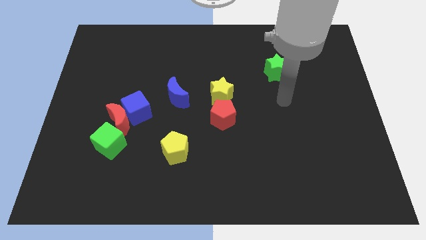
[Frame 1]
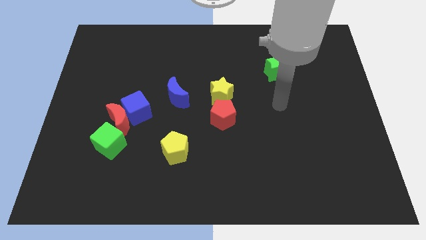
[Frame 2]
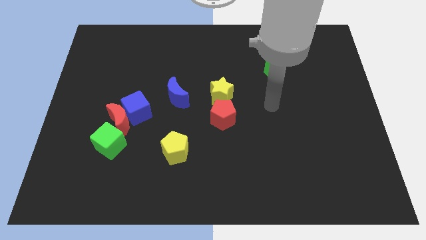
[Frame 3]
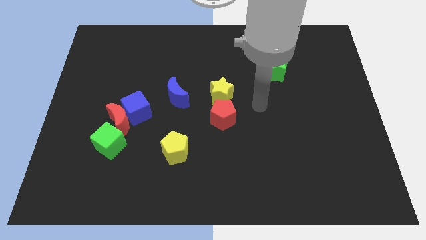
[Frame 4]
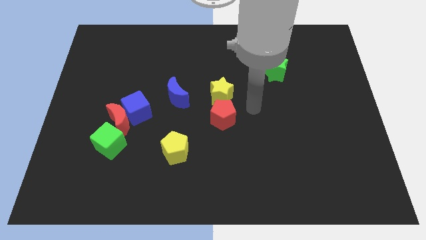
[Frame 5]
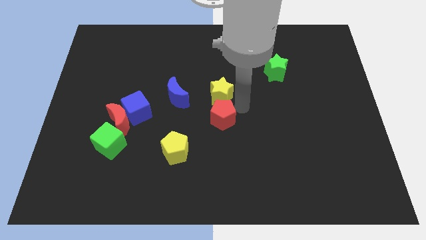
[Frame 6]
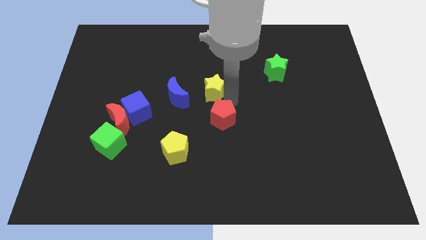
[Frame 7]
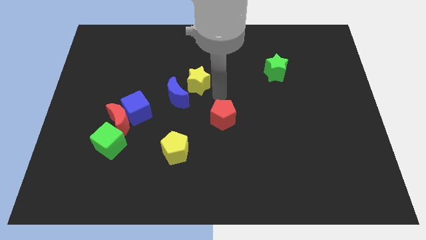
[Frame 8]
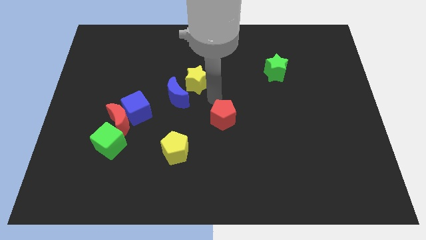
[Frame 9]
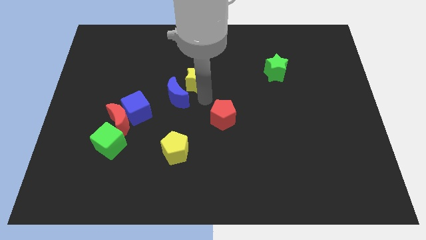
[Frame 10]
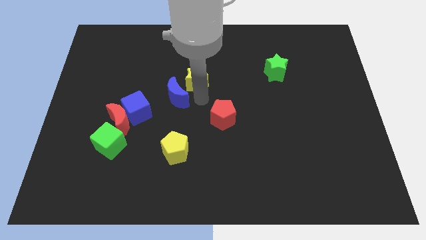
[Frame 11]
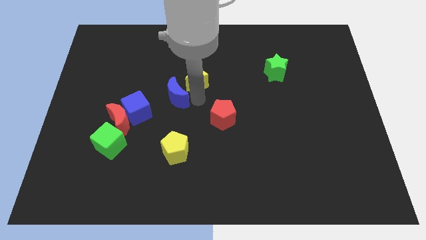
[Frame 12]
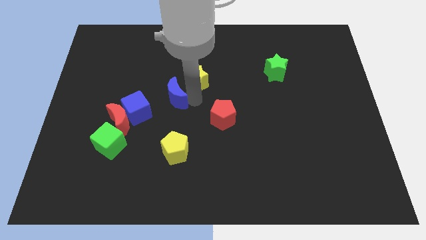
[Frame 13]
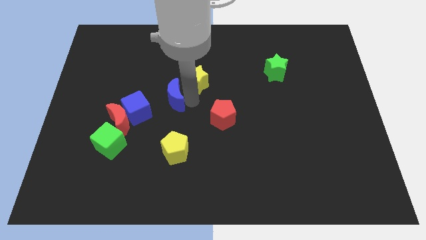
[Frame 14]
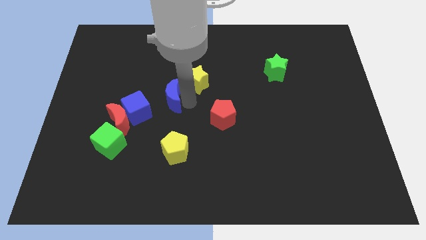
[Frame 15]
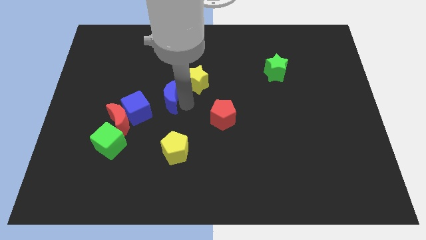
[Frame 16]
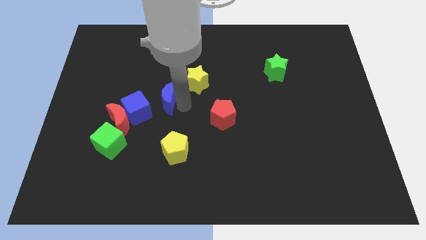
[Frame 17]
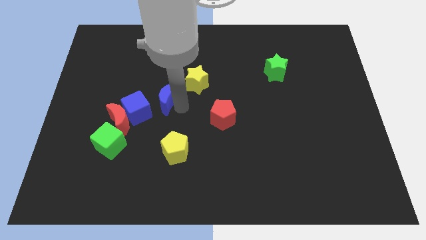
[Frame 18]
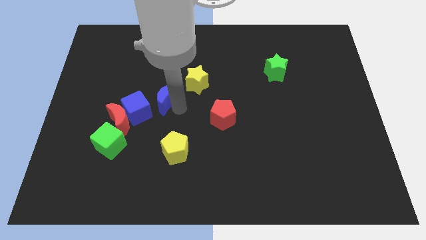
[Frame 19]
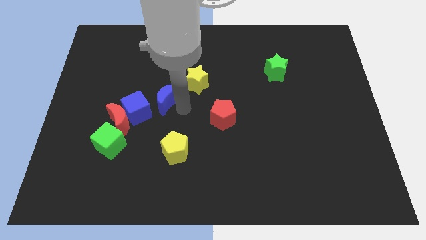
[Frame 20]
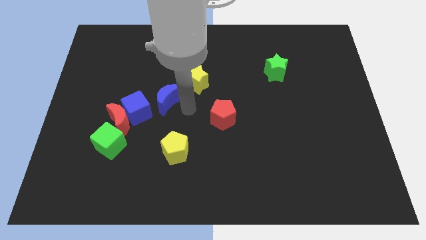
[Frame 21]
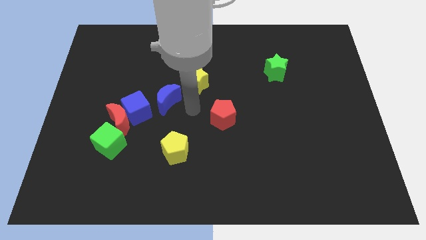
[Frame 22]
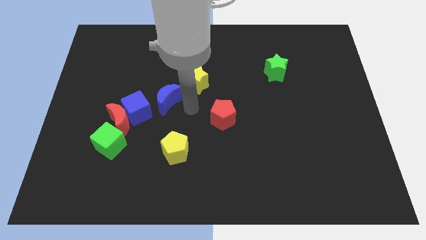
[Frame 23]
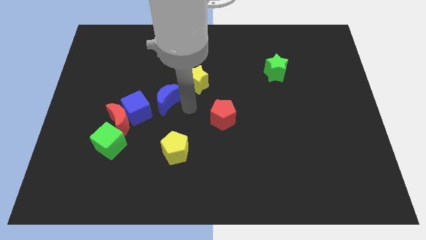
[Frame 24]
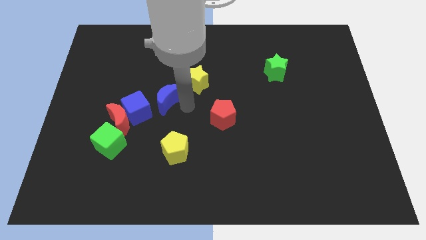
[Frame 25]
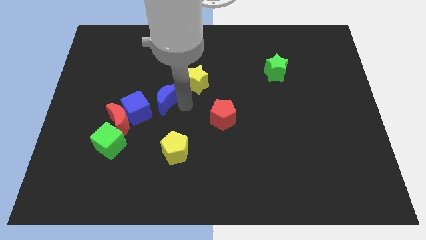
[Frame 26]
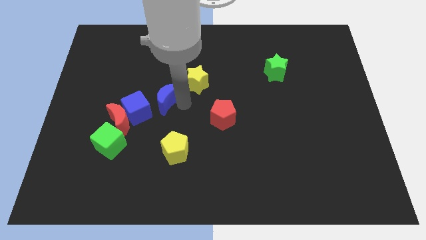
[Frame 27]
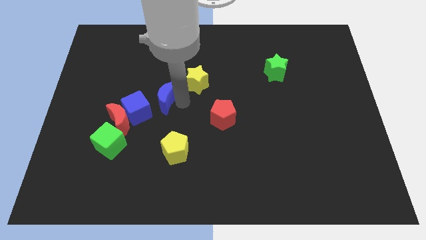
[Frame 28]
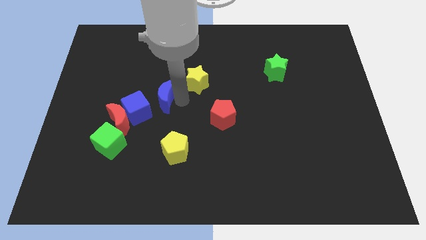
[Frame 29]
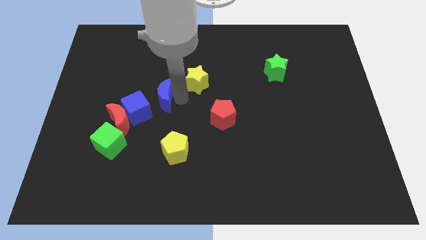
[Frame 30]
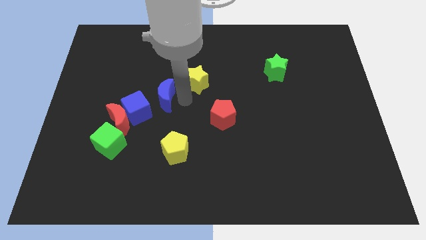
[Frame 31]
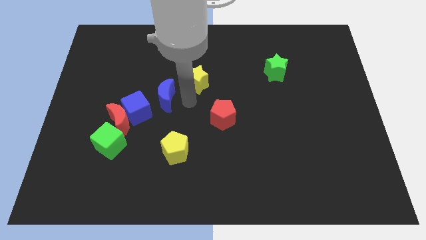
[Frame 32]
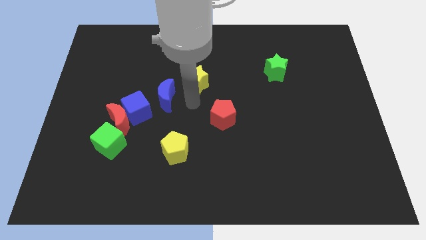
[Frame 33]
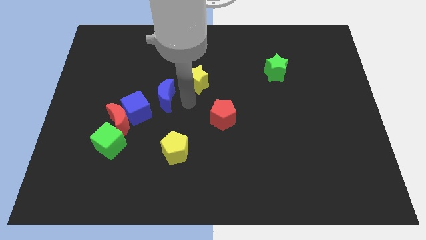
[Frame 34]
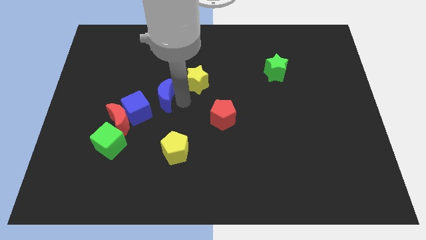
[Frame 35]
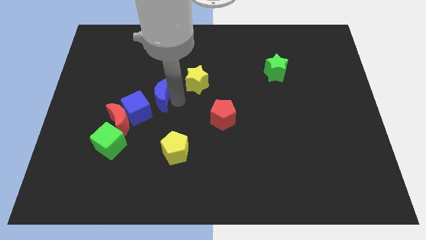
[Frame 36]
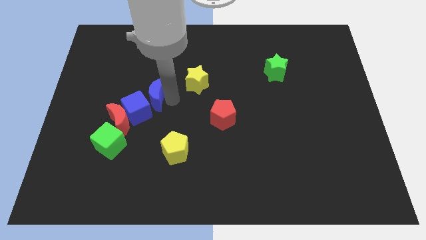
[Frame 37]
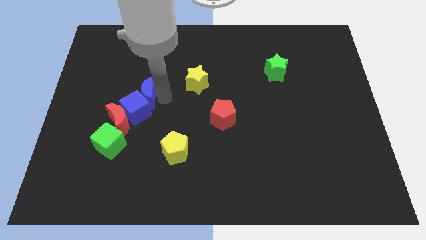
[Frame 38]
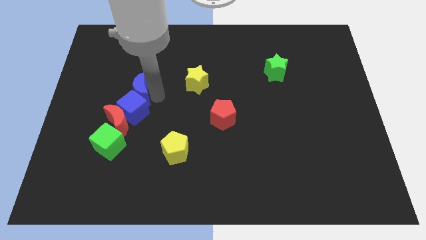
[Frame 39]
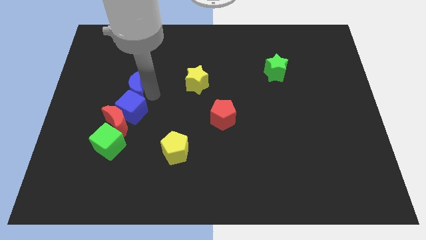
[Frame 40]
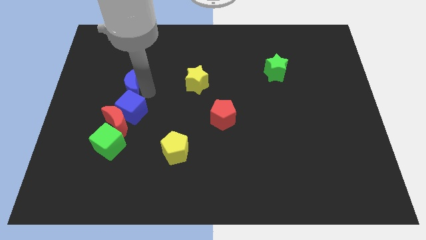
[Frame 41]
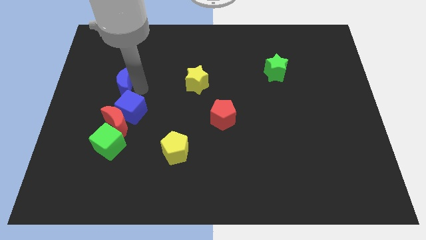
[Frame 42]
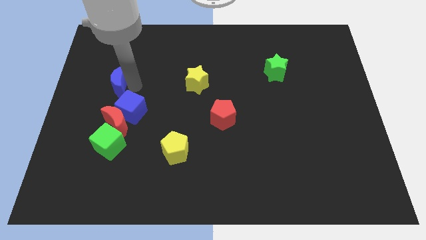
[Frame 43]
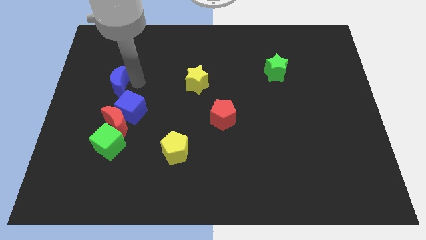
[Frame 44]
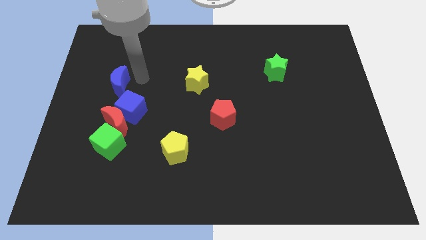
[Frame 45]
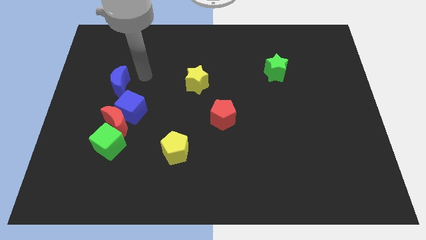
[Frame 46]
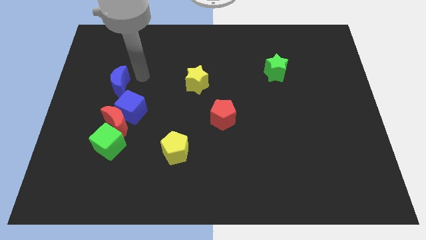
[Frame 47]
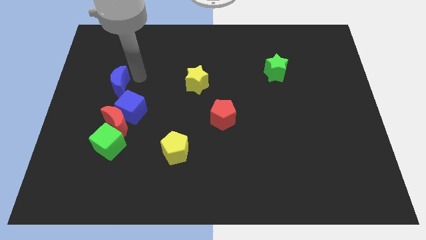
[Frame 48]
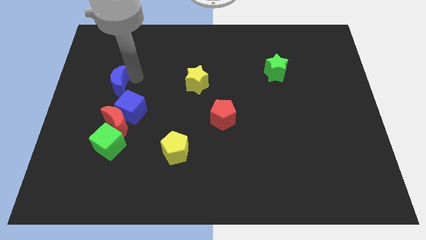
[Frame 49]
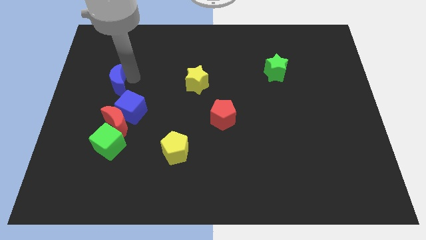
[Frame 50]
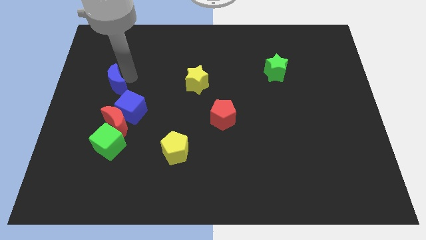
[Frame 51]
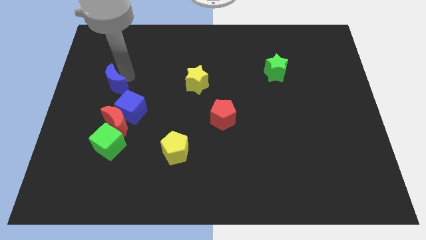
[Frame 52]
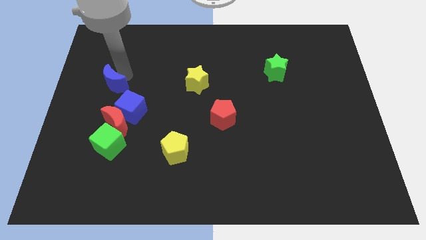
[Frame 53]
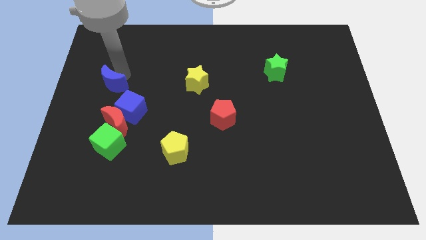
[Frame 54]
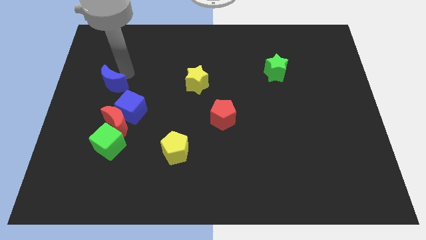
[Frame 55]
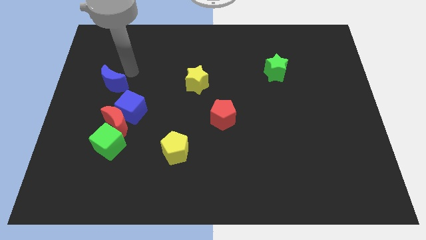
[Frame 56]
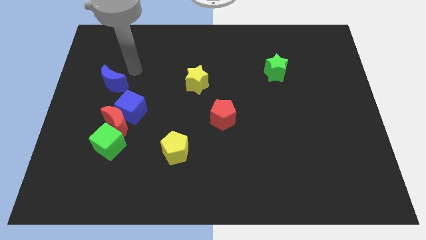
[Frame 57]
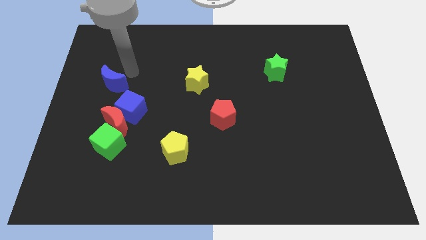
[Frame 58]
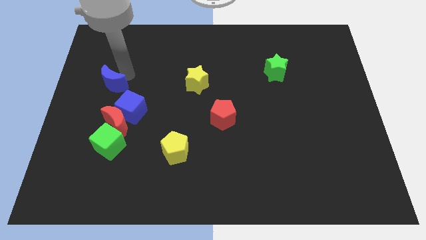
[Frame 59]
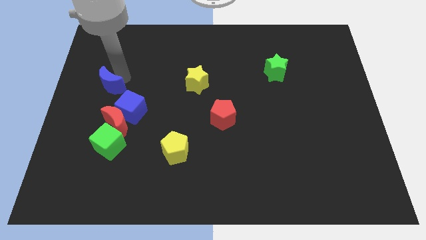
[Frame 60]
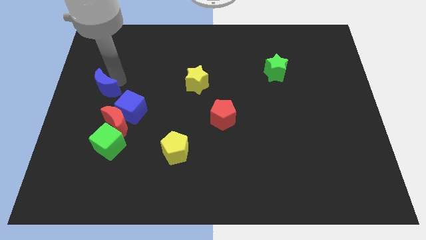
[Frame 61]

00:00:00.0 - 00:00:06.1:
move the blue moon to the left side
